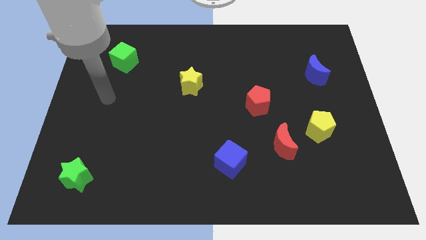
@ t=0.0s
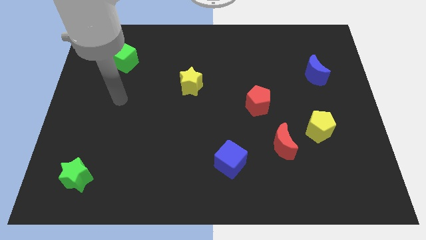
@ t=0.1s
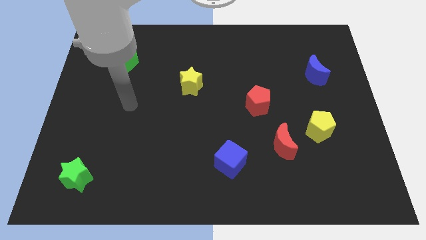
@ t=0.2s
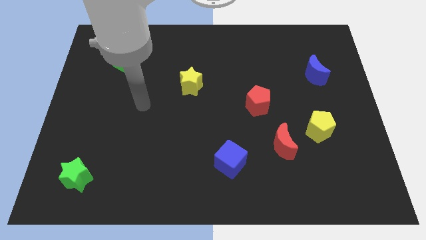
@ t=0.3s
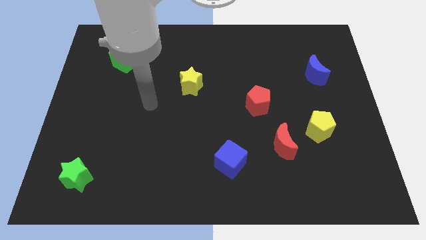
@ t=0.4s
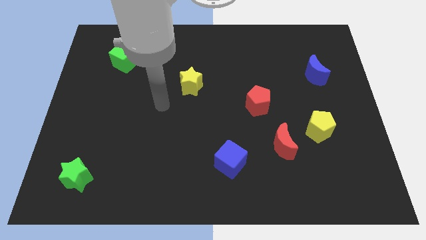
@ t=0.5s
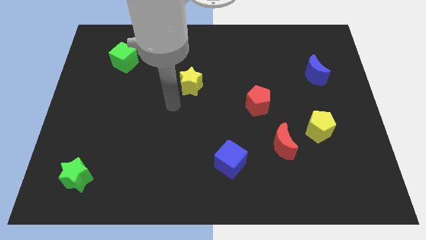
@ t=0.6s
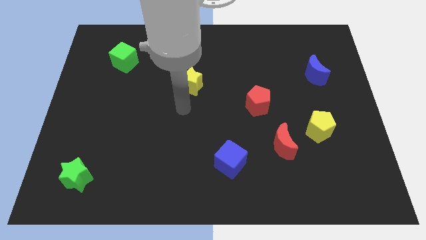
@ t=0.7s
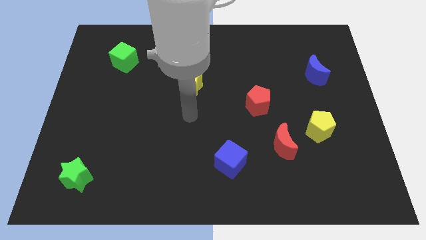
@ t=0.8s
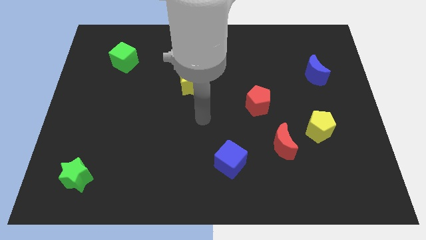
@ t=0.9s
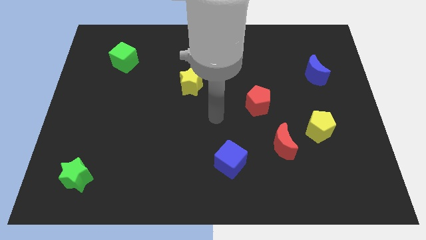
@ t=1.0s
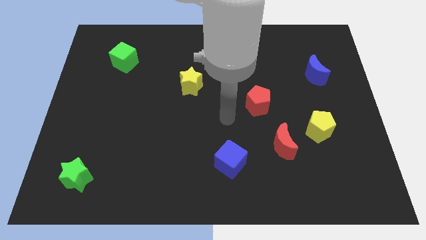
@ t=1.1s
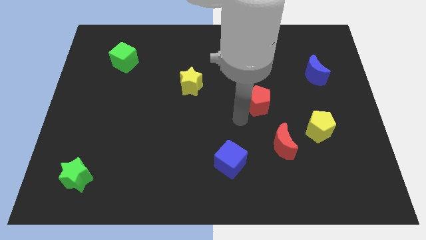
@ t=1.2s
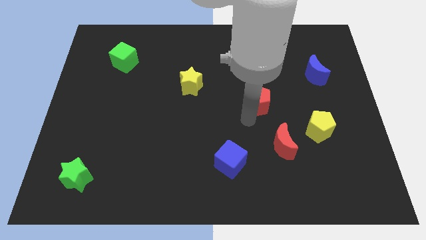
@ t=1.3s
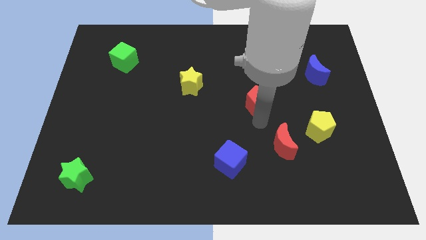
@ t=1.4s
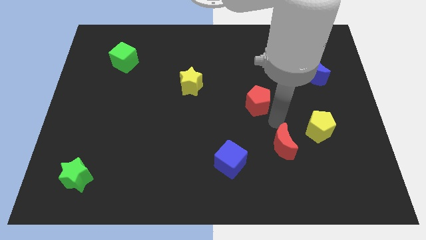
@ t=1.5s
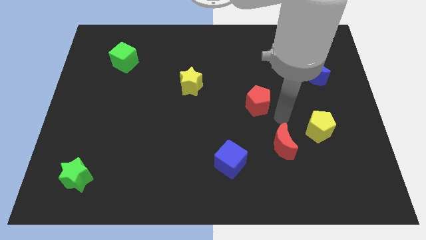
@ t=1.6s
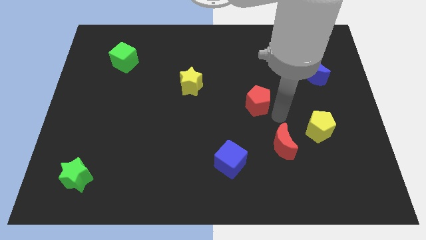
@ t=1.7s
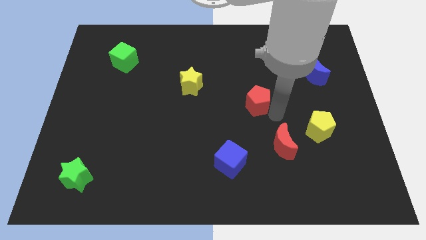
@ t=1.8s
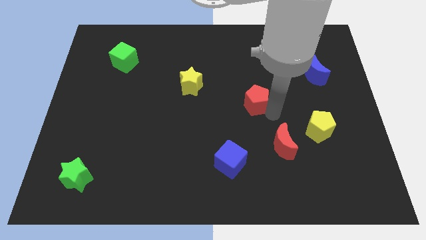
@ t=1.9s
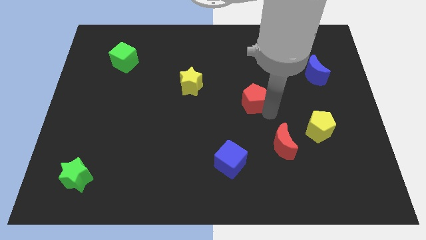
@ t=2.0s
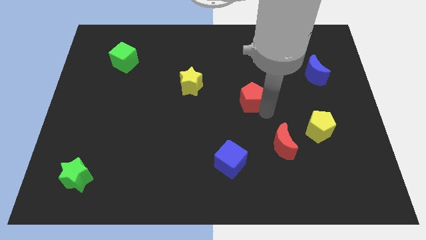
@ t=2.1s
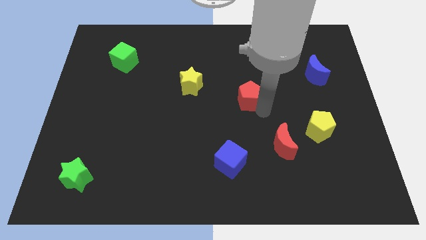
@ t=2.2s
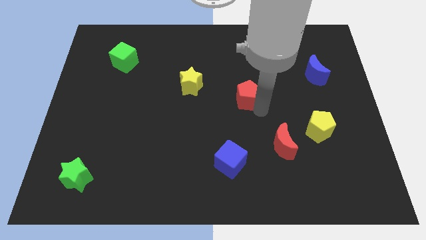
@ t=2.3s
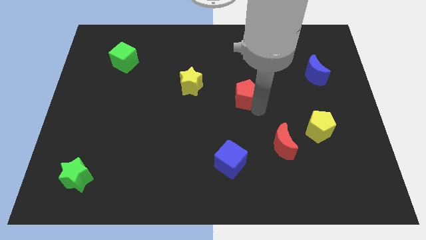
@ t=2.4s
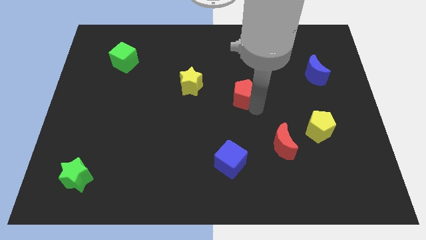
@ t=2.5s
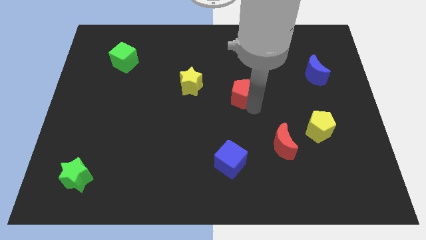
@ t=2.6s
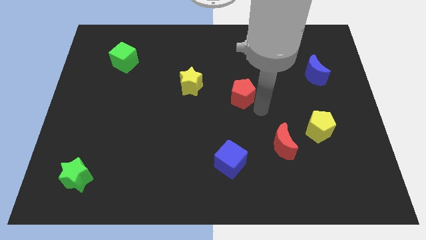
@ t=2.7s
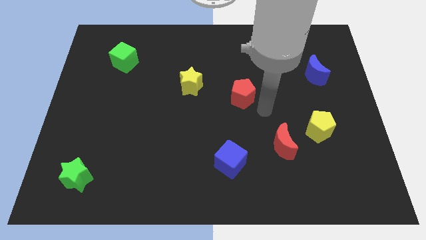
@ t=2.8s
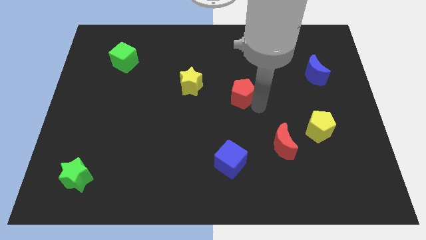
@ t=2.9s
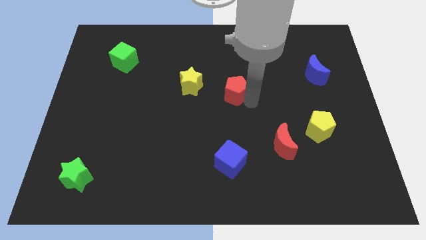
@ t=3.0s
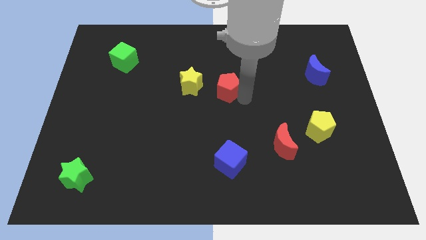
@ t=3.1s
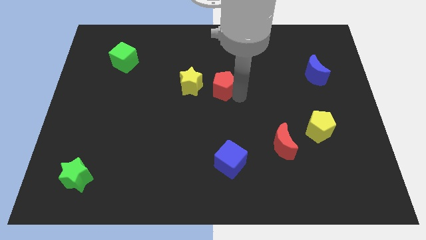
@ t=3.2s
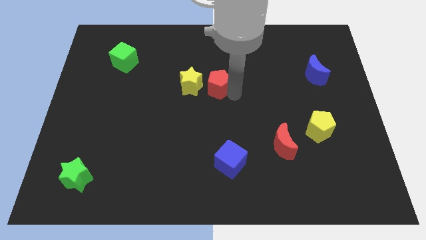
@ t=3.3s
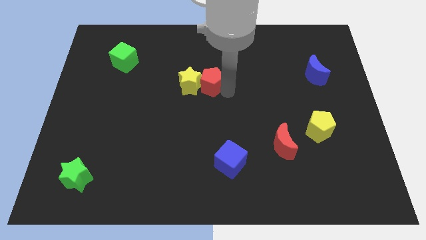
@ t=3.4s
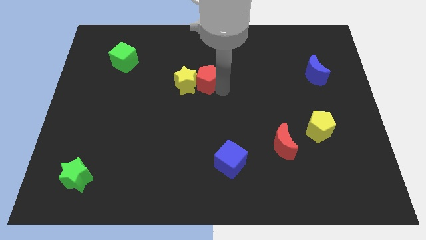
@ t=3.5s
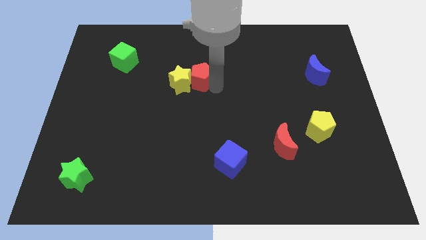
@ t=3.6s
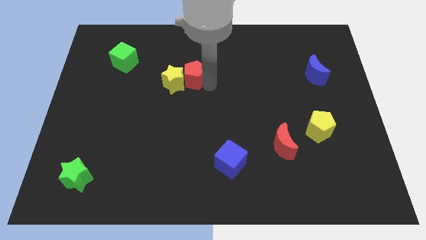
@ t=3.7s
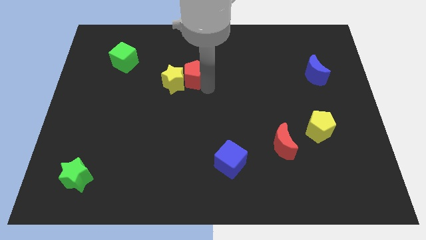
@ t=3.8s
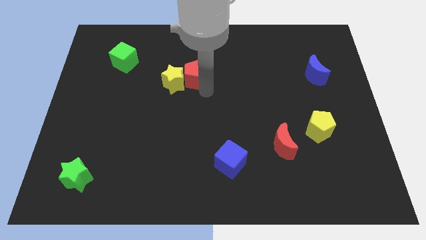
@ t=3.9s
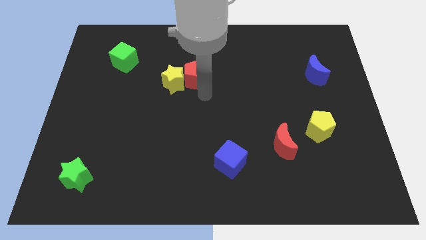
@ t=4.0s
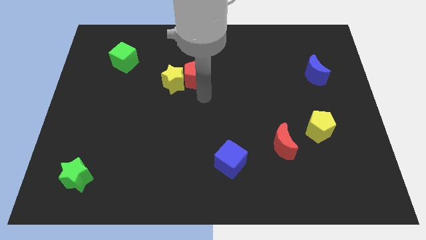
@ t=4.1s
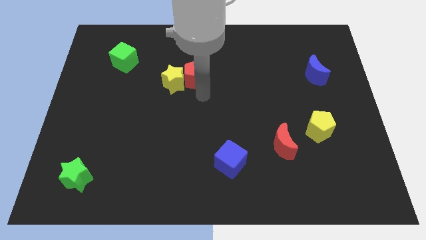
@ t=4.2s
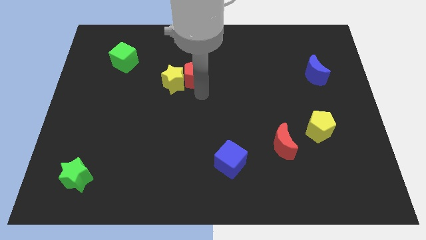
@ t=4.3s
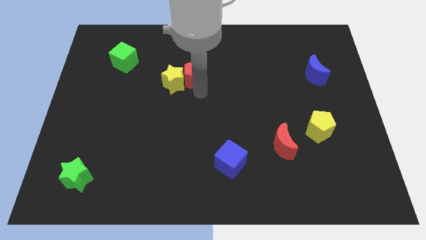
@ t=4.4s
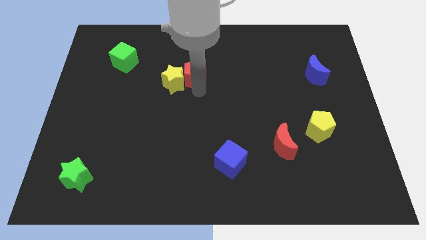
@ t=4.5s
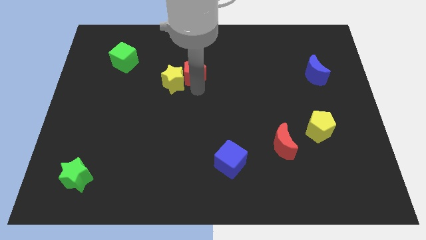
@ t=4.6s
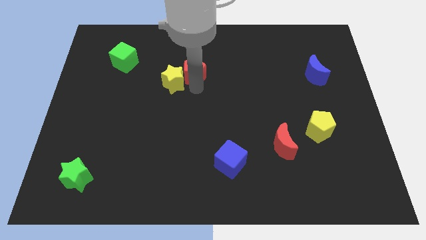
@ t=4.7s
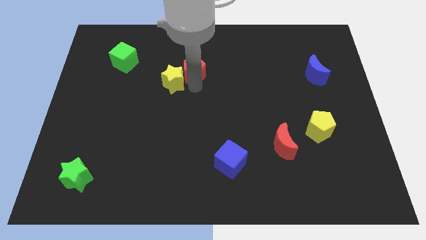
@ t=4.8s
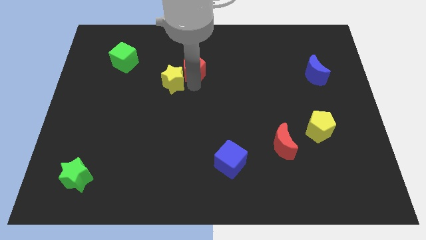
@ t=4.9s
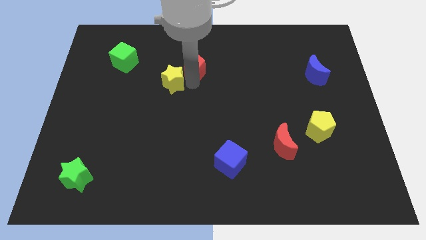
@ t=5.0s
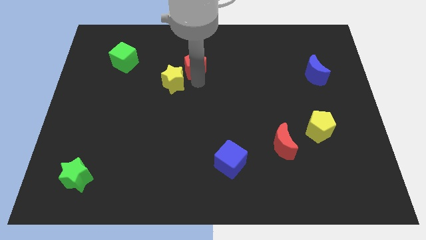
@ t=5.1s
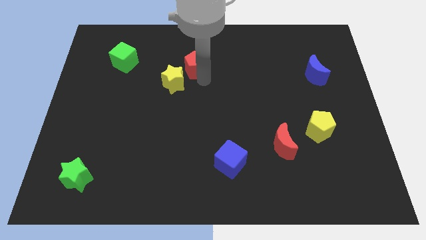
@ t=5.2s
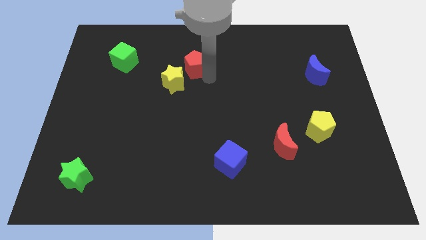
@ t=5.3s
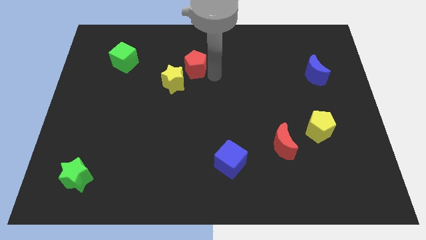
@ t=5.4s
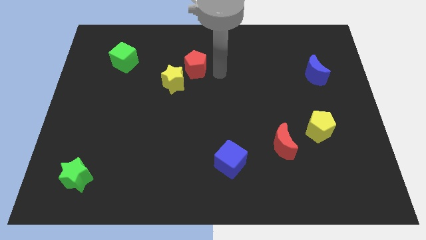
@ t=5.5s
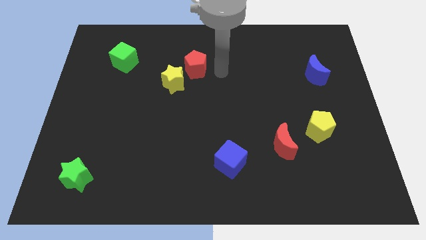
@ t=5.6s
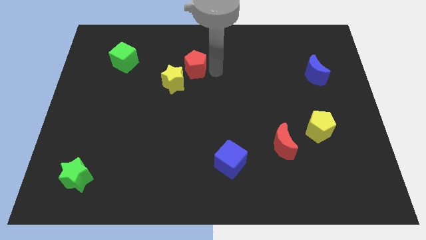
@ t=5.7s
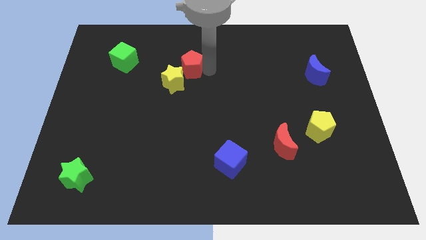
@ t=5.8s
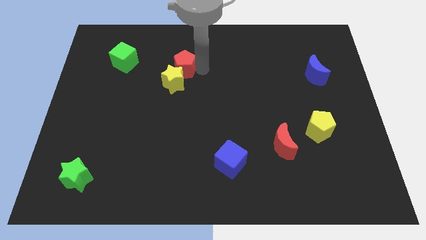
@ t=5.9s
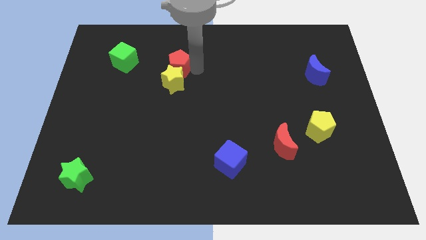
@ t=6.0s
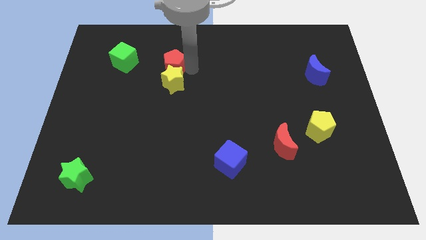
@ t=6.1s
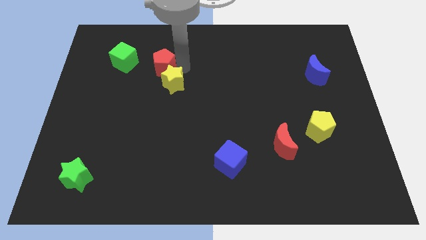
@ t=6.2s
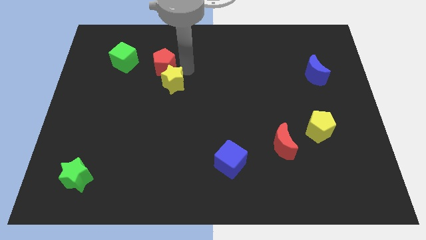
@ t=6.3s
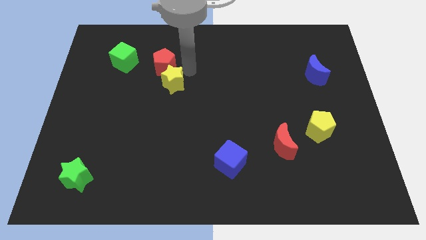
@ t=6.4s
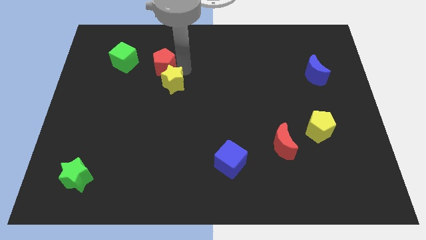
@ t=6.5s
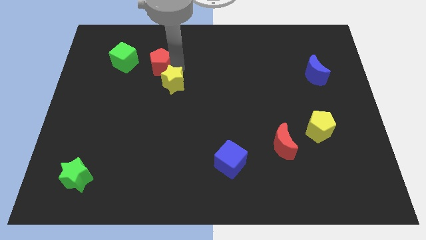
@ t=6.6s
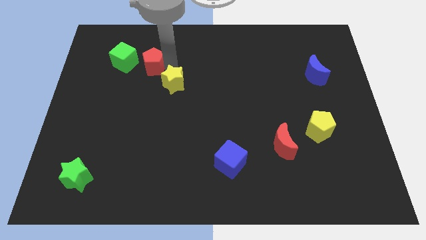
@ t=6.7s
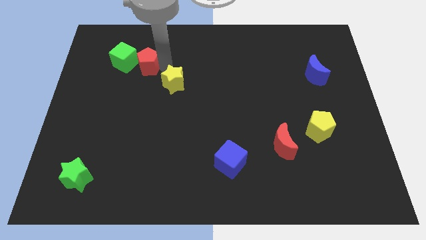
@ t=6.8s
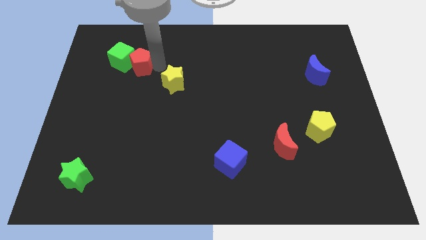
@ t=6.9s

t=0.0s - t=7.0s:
push the red pentagon next to the green cube
